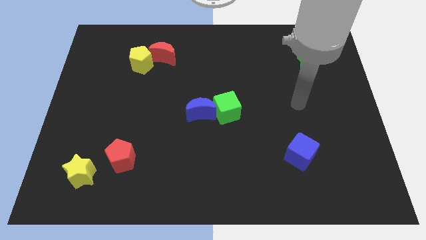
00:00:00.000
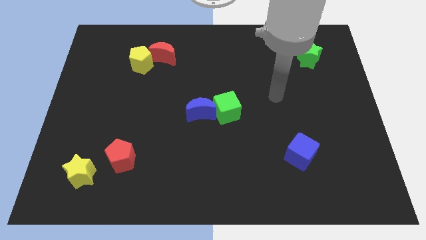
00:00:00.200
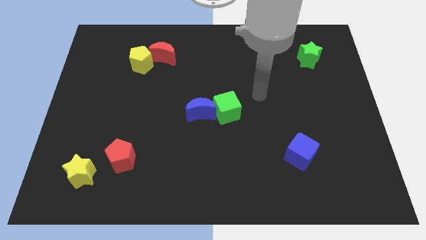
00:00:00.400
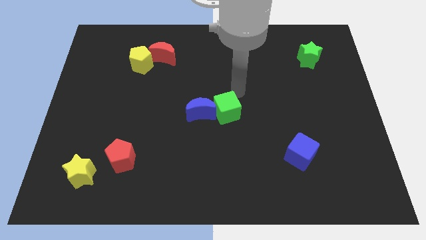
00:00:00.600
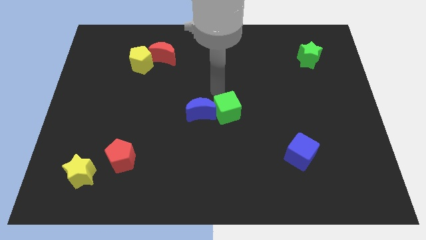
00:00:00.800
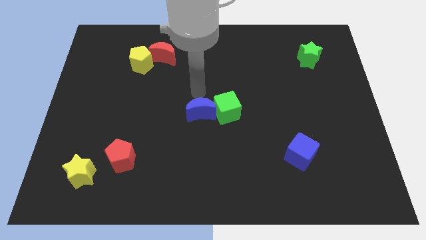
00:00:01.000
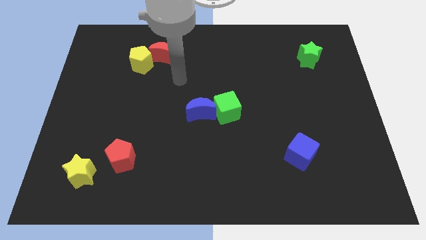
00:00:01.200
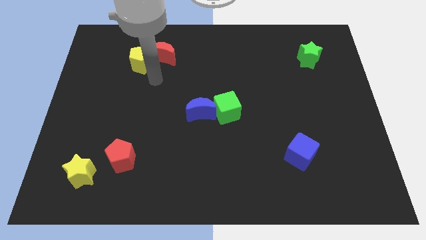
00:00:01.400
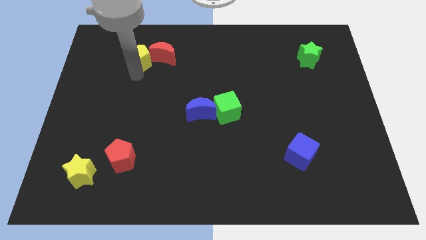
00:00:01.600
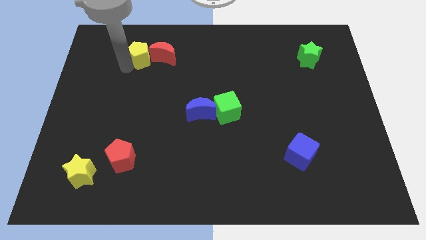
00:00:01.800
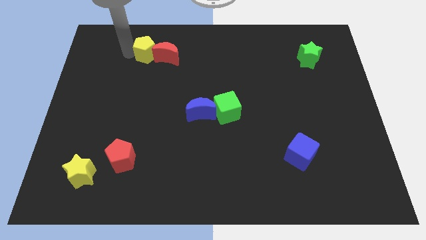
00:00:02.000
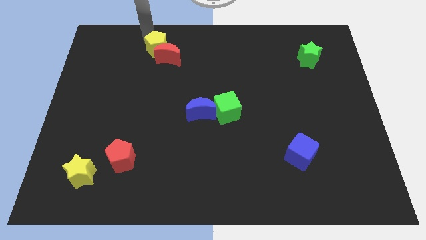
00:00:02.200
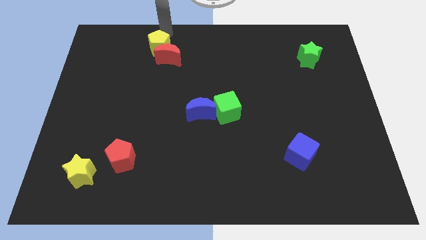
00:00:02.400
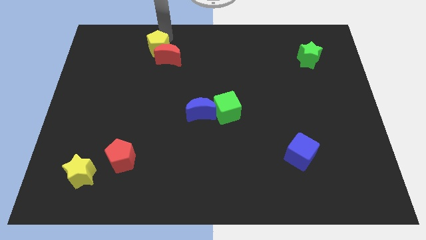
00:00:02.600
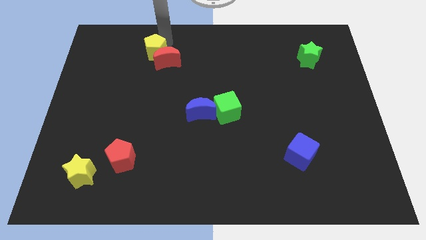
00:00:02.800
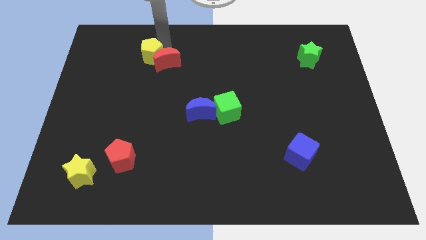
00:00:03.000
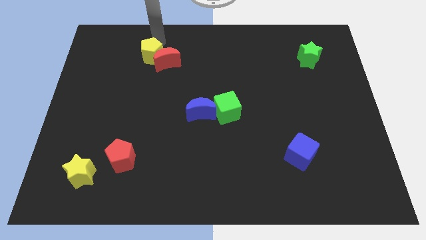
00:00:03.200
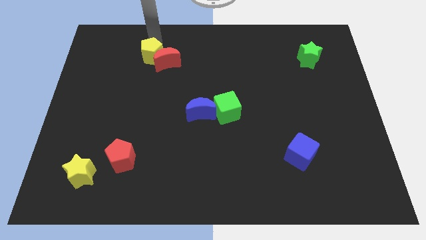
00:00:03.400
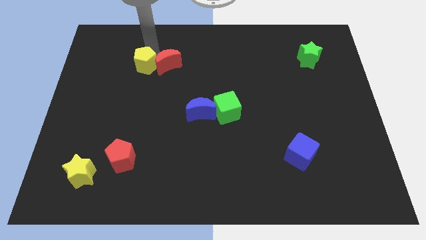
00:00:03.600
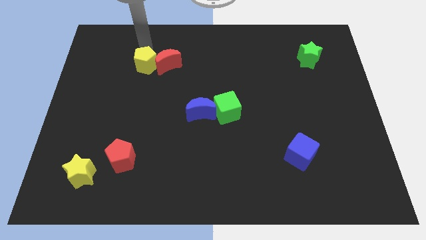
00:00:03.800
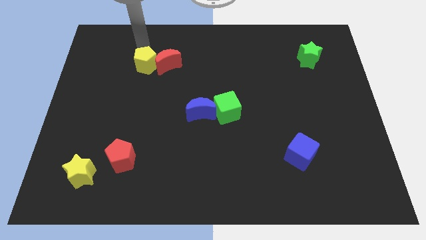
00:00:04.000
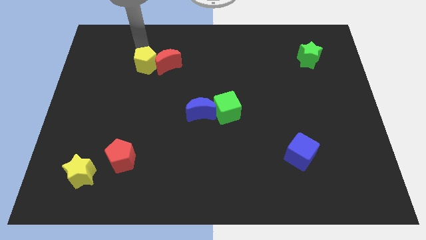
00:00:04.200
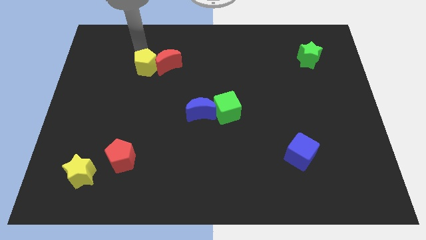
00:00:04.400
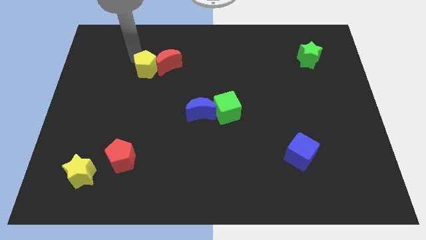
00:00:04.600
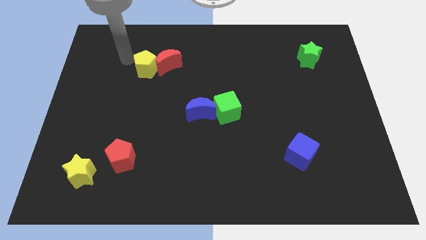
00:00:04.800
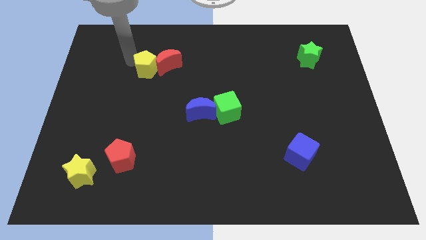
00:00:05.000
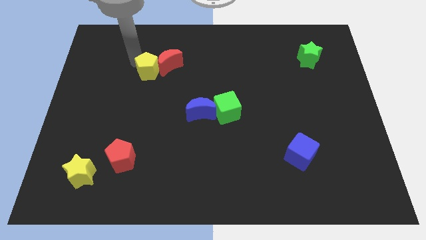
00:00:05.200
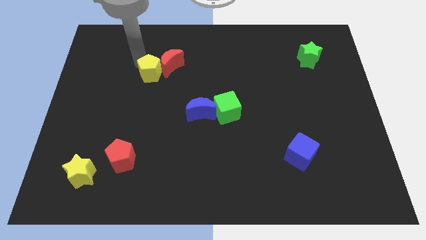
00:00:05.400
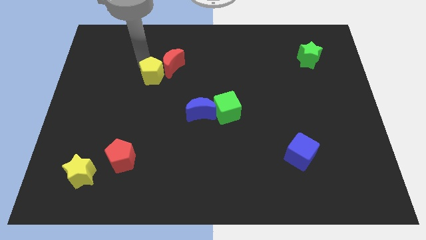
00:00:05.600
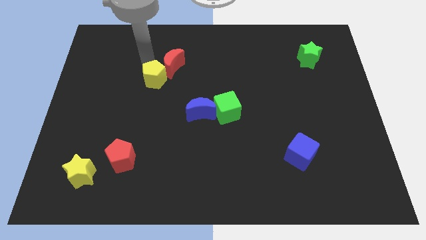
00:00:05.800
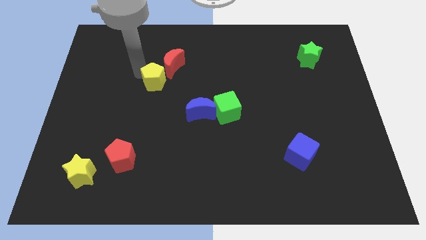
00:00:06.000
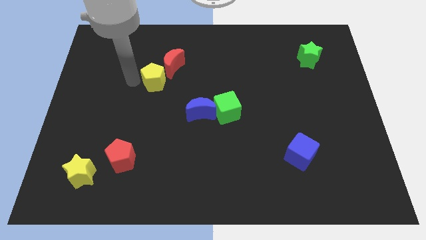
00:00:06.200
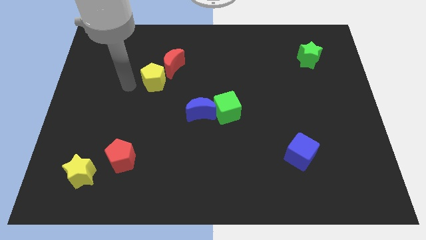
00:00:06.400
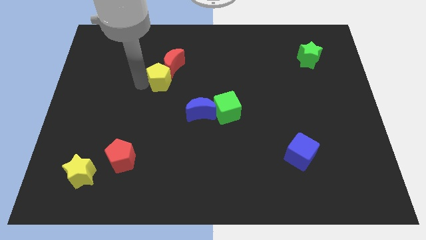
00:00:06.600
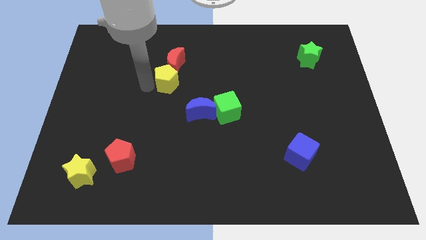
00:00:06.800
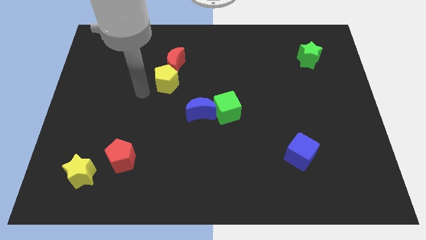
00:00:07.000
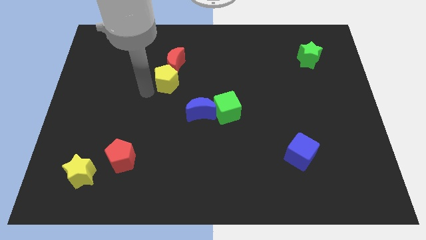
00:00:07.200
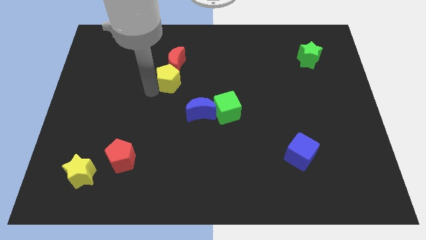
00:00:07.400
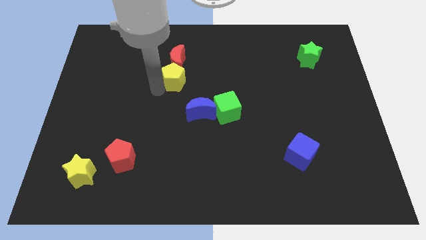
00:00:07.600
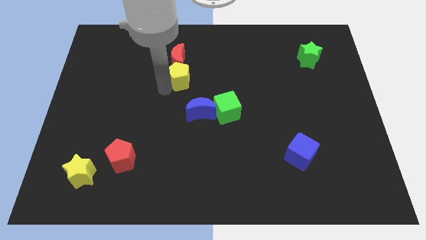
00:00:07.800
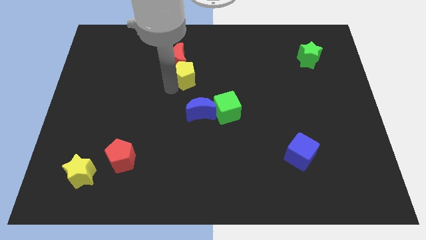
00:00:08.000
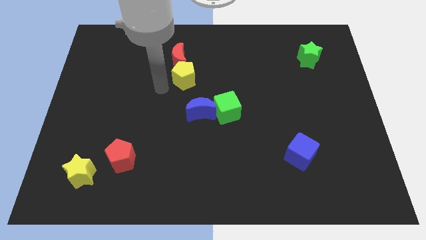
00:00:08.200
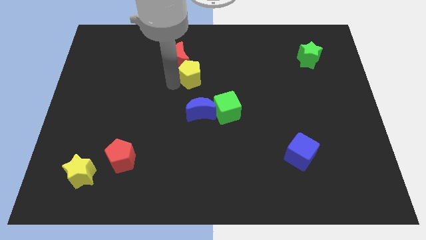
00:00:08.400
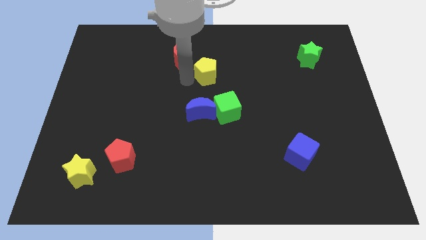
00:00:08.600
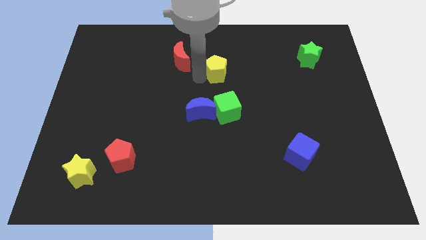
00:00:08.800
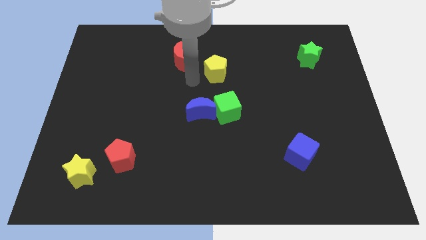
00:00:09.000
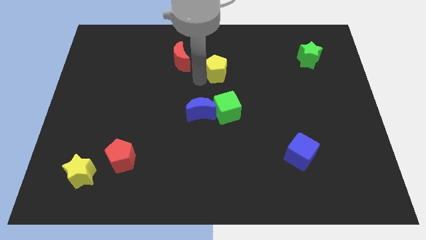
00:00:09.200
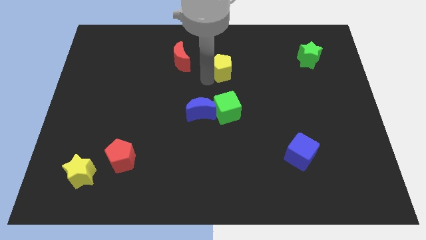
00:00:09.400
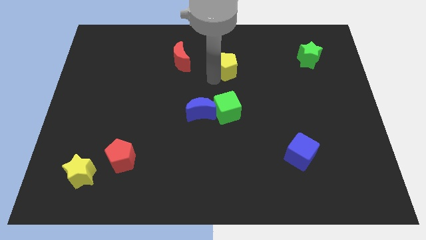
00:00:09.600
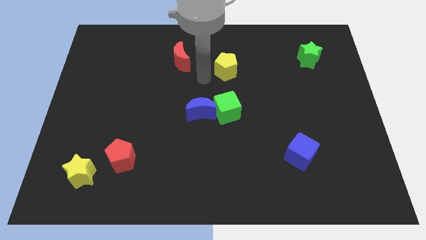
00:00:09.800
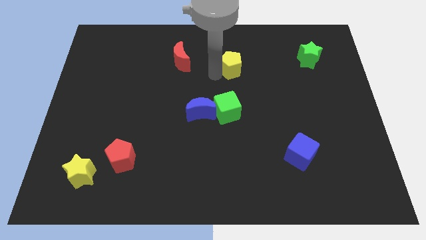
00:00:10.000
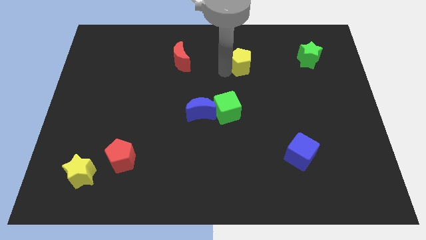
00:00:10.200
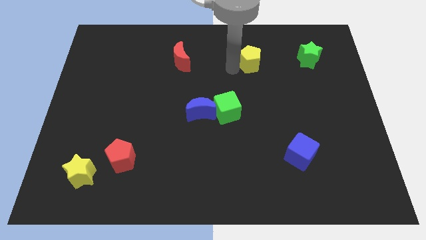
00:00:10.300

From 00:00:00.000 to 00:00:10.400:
slide the yellow pentagon left of the green star

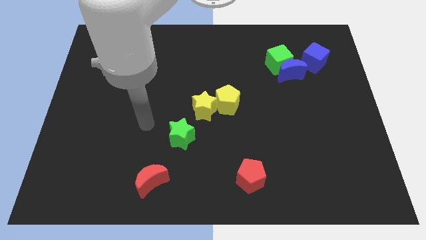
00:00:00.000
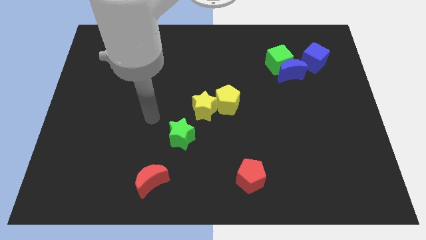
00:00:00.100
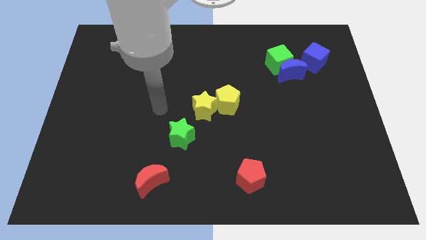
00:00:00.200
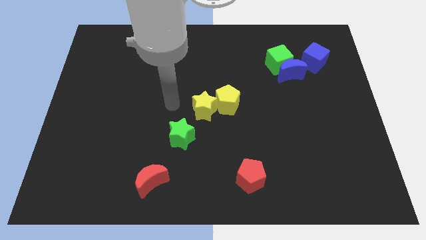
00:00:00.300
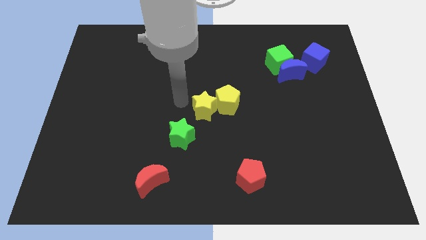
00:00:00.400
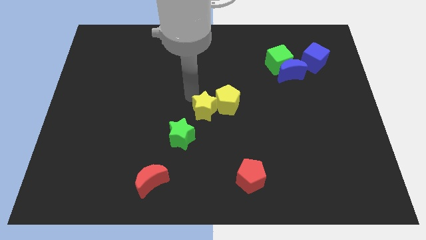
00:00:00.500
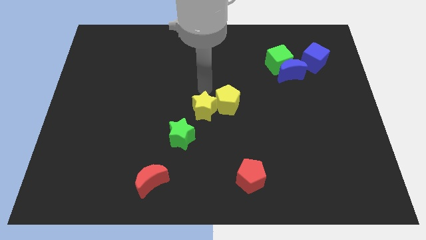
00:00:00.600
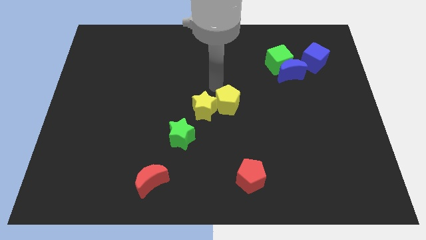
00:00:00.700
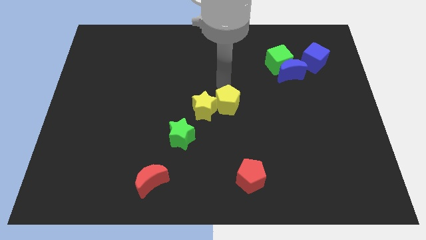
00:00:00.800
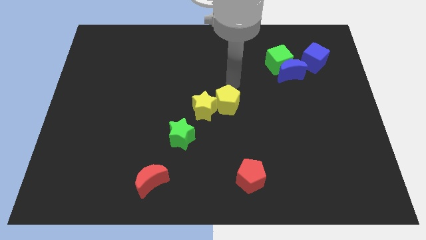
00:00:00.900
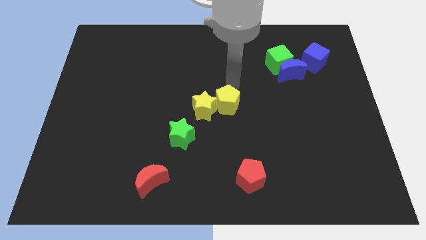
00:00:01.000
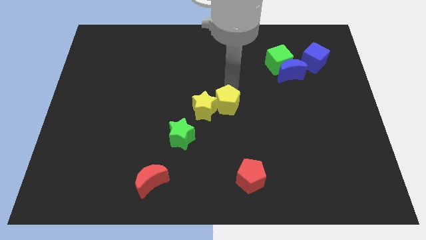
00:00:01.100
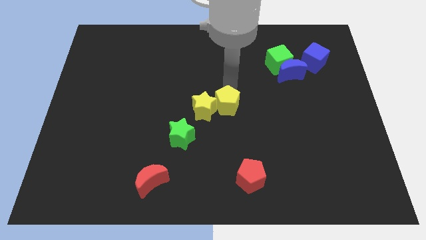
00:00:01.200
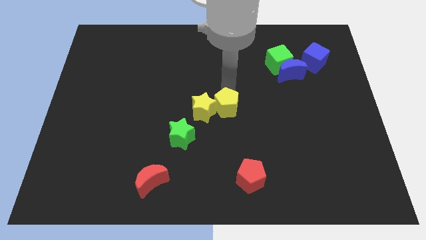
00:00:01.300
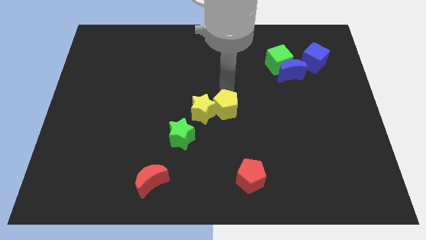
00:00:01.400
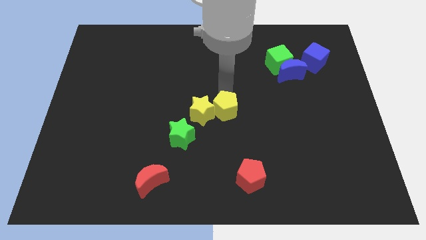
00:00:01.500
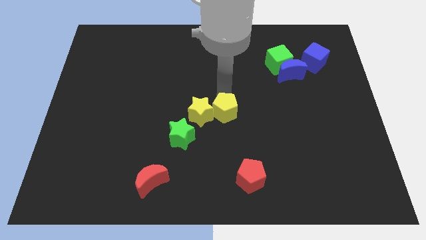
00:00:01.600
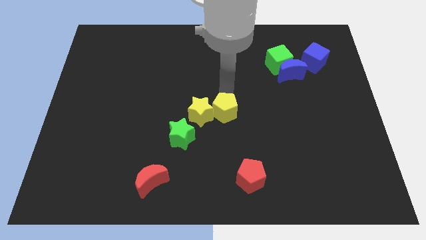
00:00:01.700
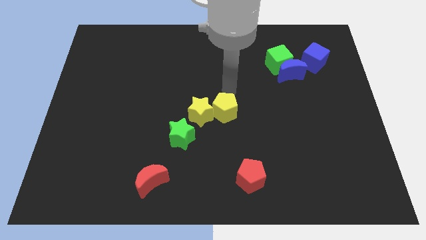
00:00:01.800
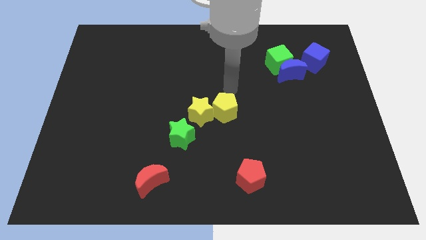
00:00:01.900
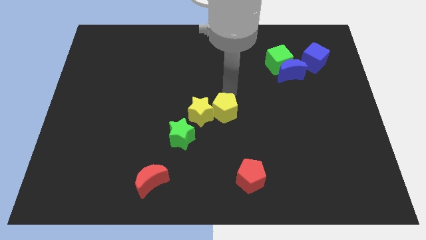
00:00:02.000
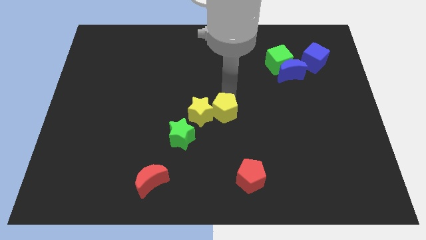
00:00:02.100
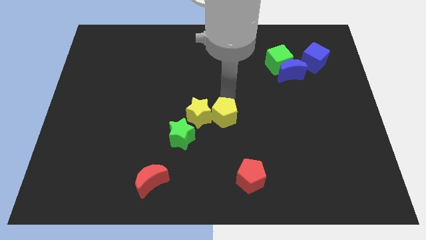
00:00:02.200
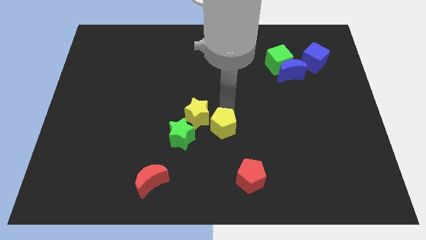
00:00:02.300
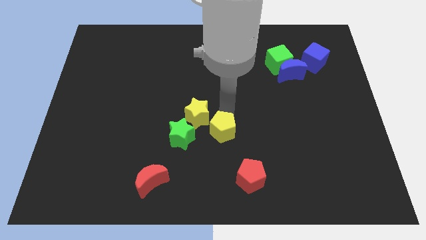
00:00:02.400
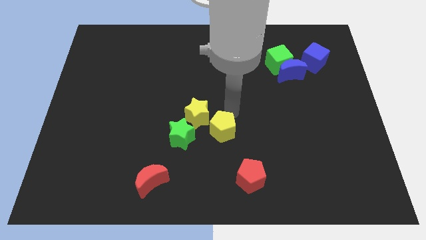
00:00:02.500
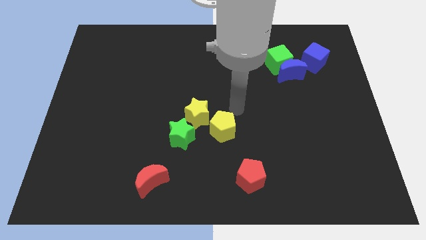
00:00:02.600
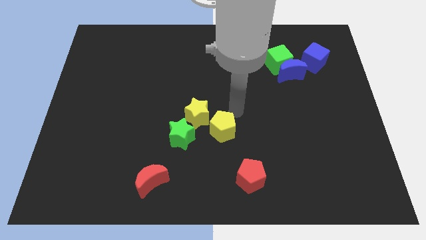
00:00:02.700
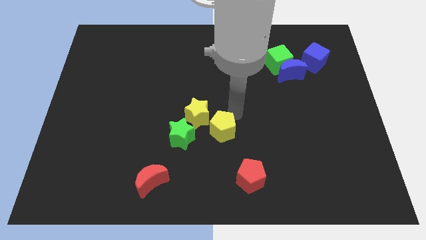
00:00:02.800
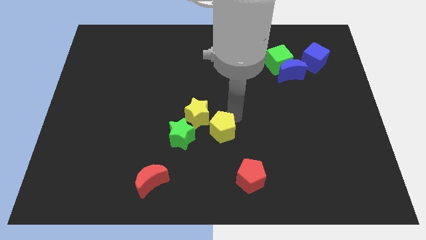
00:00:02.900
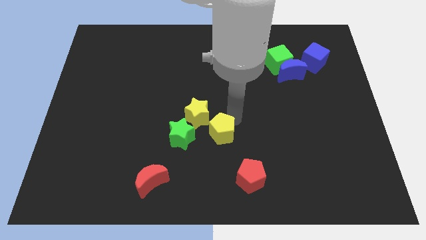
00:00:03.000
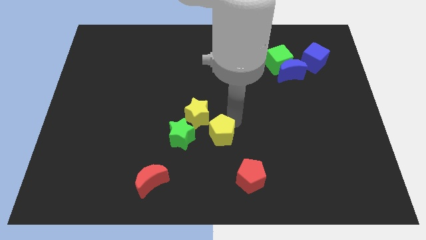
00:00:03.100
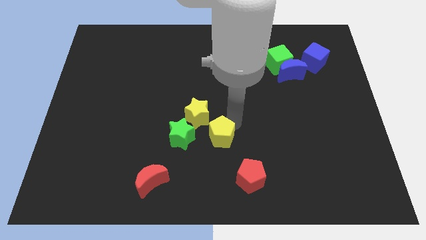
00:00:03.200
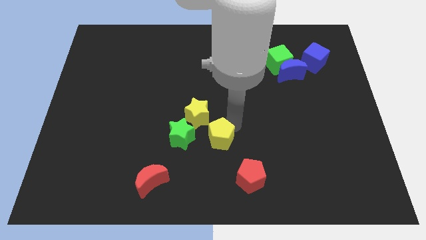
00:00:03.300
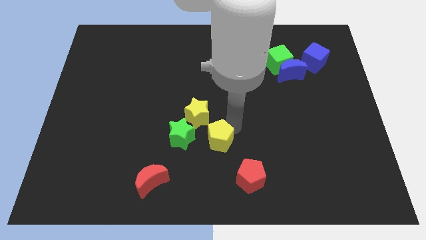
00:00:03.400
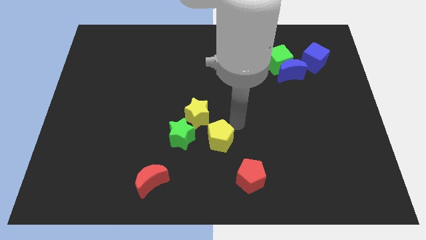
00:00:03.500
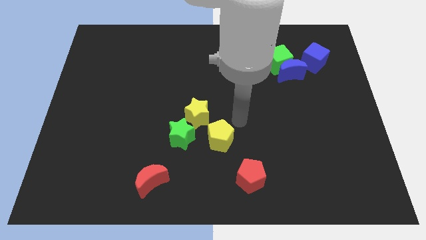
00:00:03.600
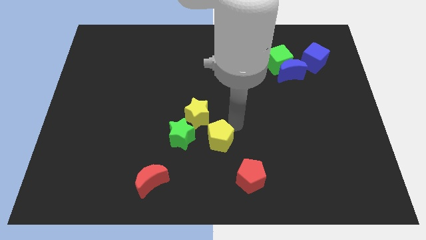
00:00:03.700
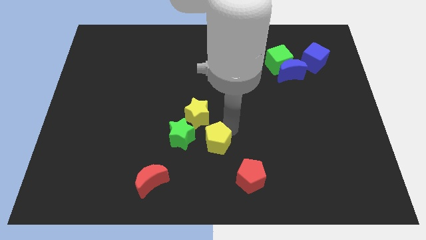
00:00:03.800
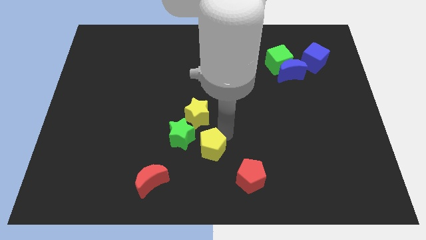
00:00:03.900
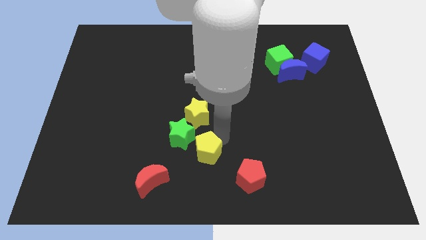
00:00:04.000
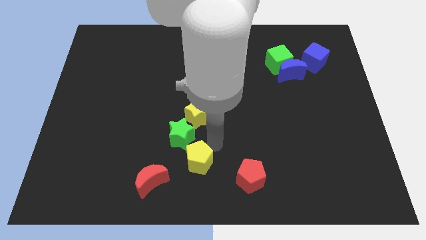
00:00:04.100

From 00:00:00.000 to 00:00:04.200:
put the yellow pentagon to the bottom of the green star
